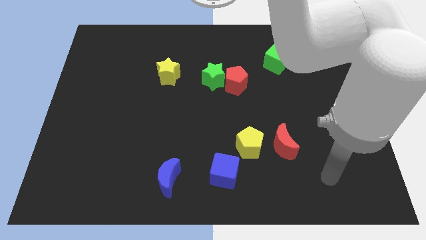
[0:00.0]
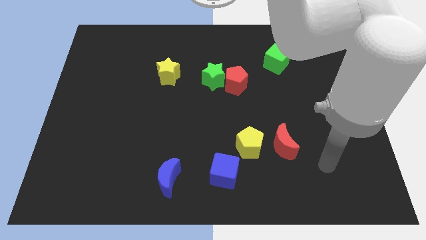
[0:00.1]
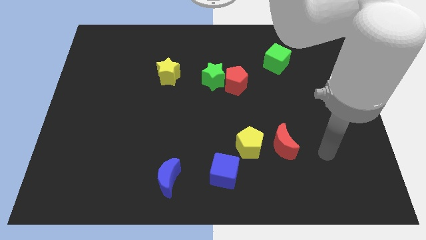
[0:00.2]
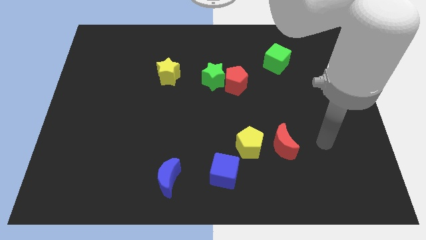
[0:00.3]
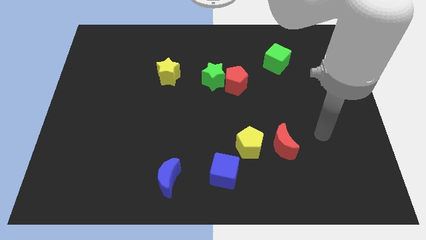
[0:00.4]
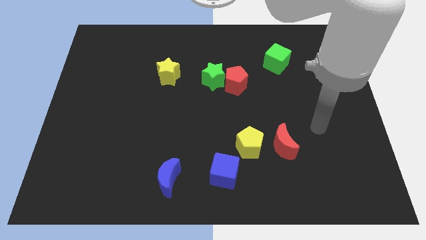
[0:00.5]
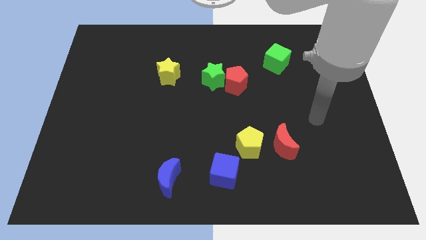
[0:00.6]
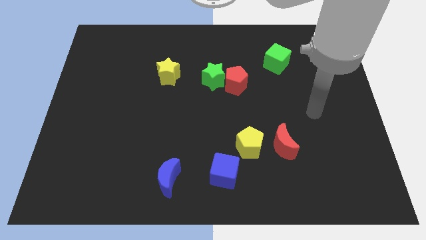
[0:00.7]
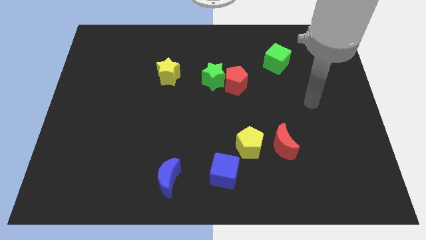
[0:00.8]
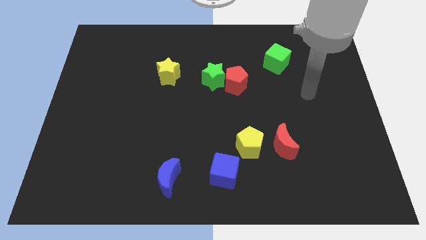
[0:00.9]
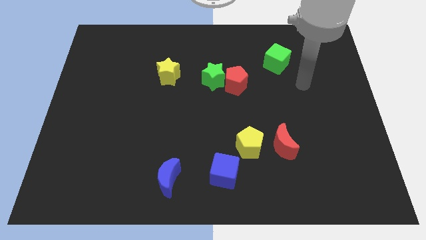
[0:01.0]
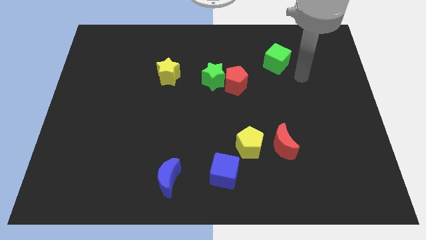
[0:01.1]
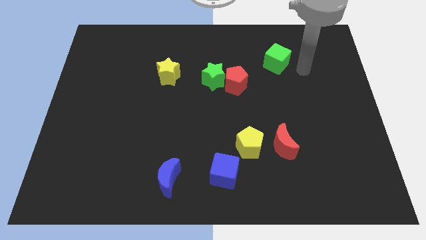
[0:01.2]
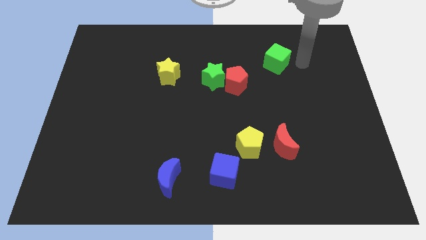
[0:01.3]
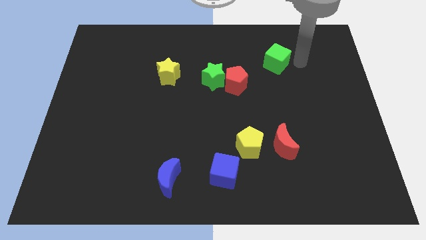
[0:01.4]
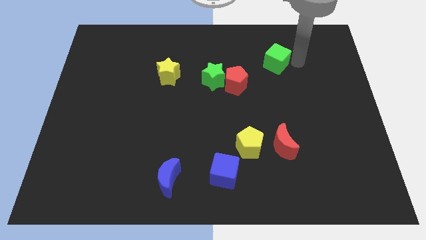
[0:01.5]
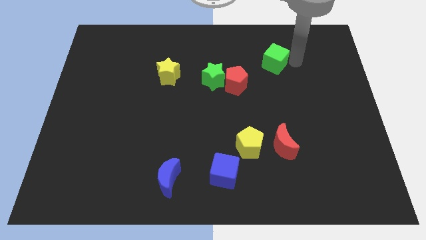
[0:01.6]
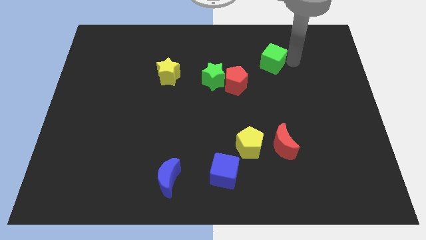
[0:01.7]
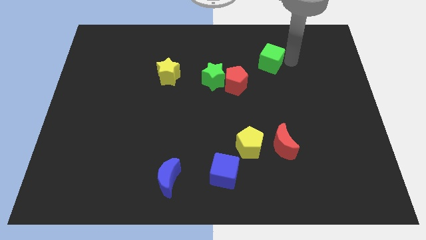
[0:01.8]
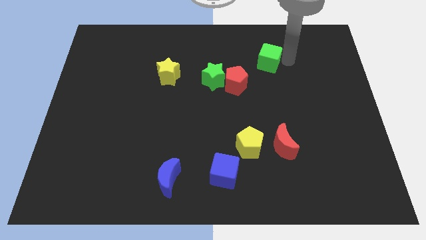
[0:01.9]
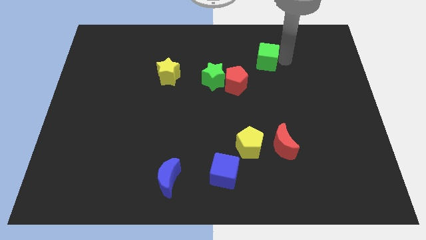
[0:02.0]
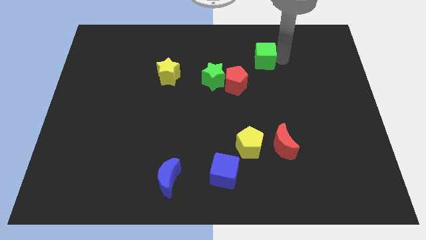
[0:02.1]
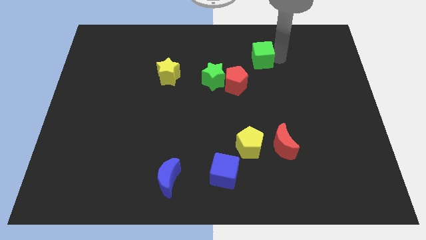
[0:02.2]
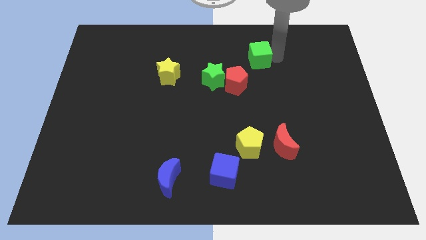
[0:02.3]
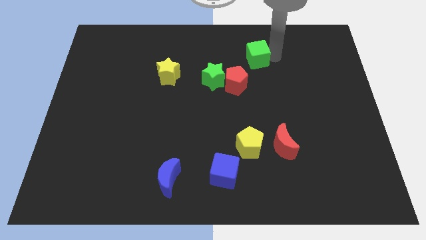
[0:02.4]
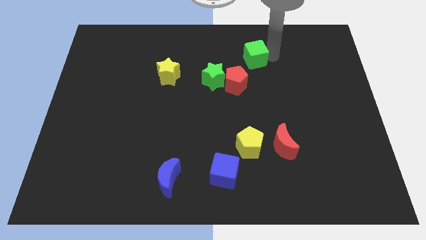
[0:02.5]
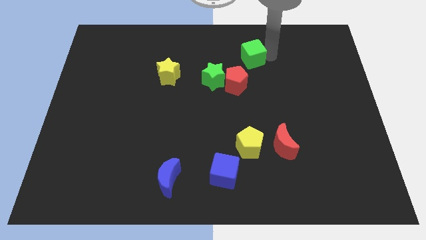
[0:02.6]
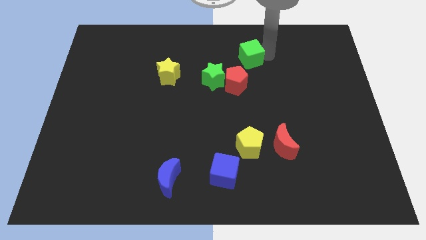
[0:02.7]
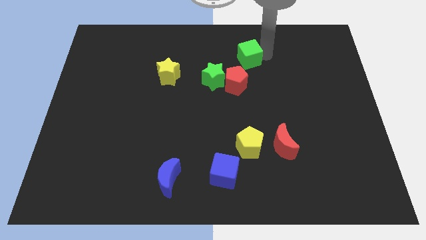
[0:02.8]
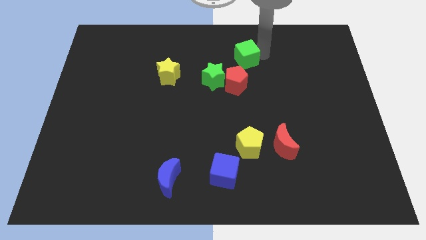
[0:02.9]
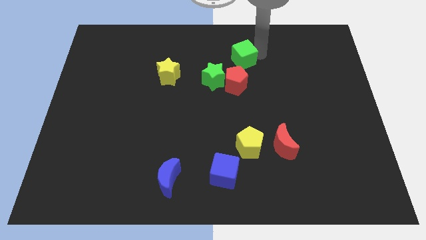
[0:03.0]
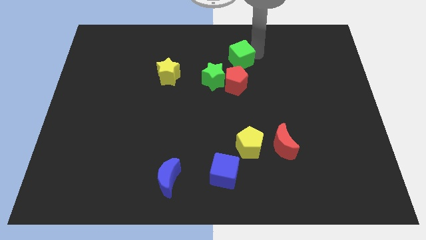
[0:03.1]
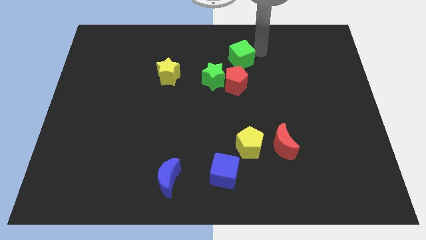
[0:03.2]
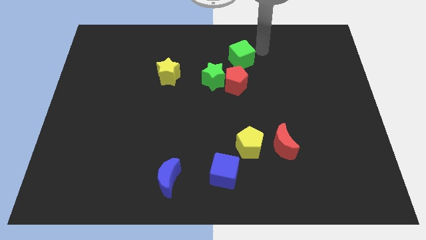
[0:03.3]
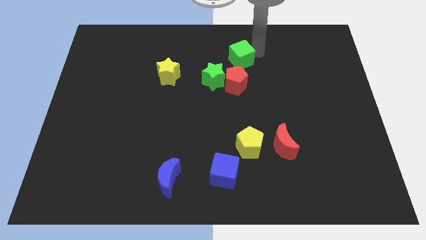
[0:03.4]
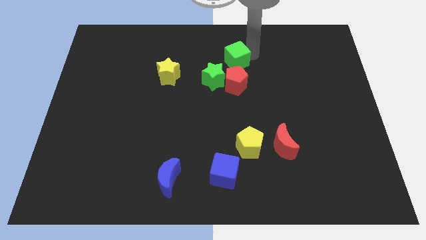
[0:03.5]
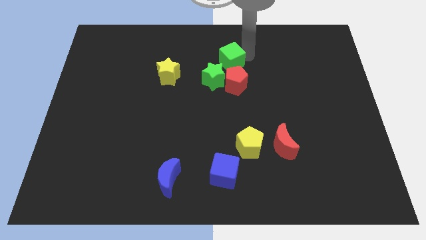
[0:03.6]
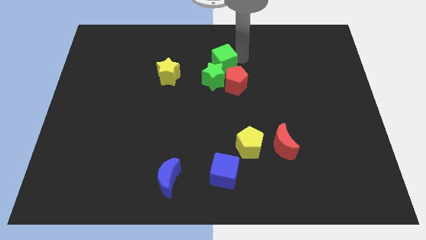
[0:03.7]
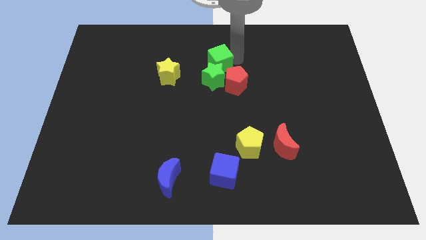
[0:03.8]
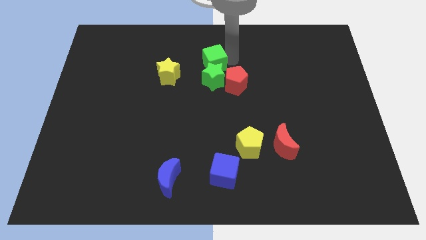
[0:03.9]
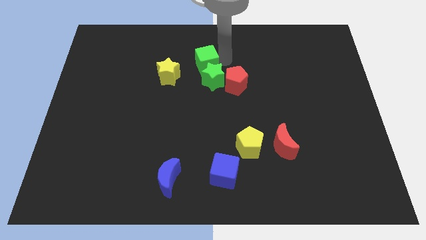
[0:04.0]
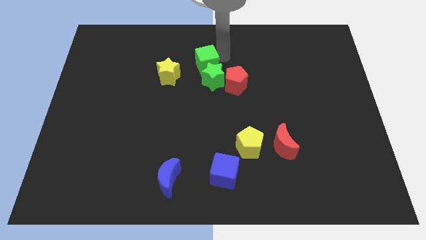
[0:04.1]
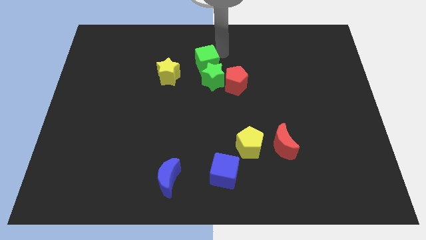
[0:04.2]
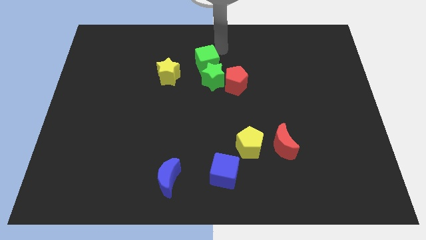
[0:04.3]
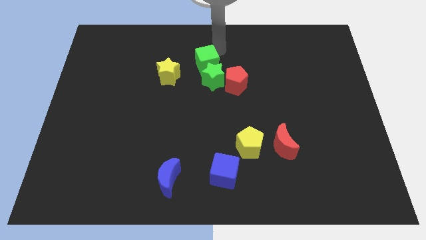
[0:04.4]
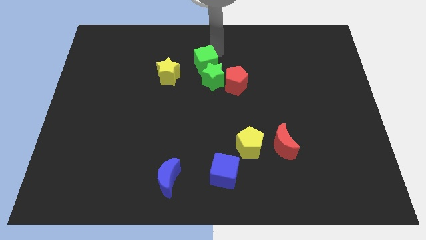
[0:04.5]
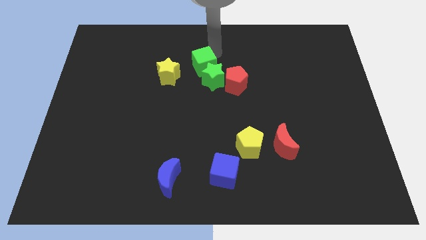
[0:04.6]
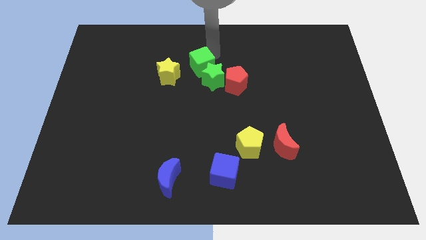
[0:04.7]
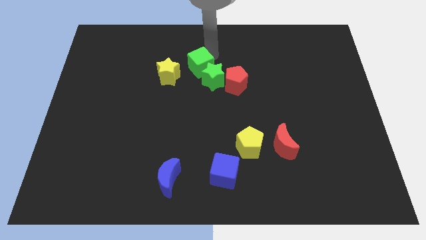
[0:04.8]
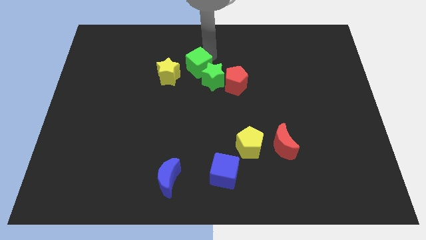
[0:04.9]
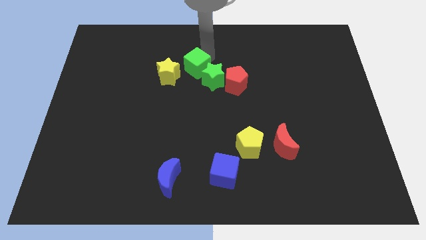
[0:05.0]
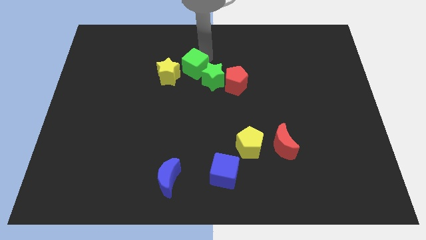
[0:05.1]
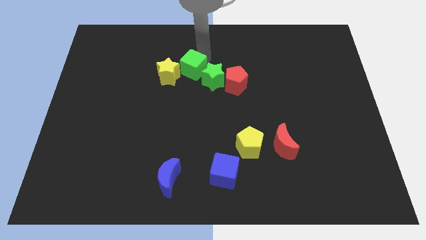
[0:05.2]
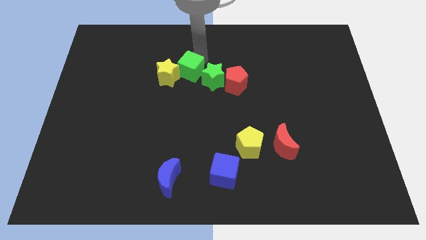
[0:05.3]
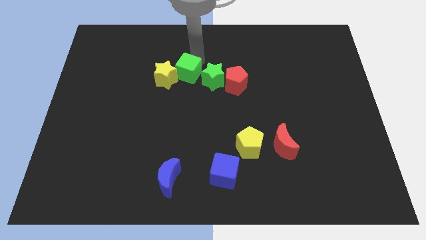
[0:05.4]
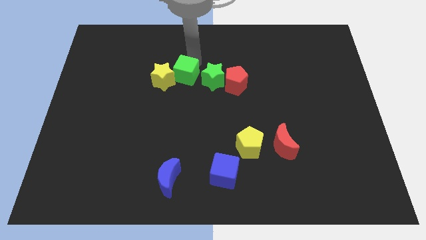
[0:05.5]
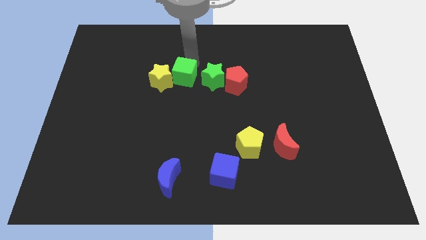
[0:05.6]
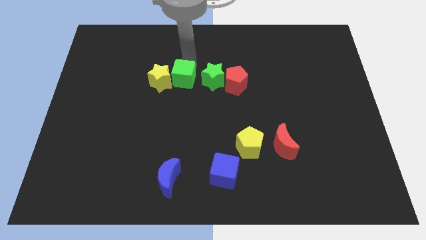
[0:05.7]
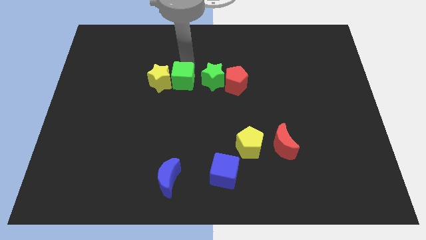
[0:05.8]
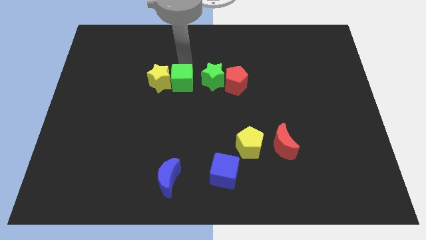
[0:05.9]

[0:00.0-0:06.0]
push the green cube diagonally down and to the left of the green star

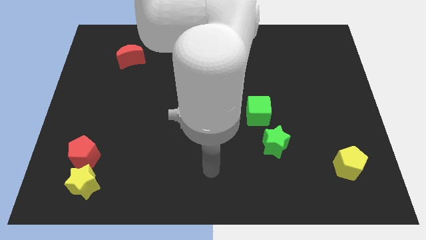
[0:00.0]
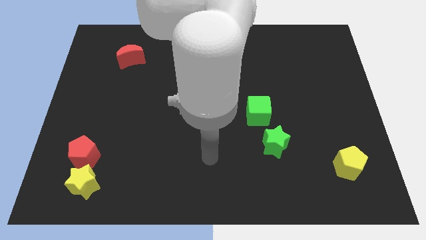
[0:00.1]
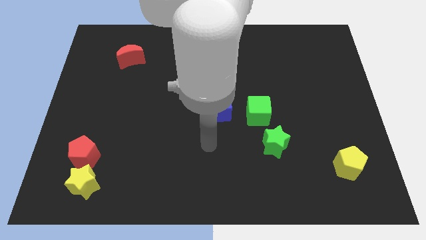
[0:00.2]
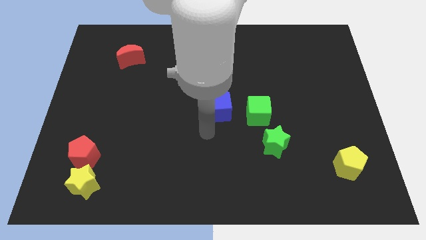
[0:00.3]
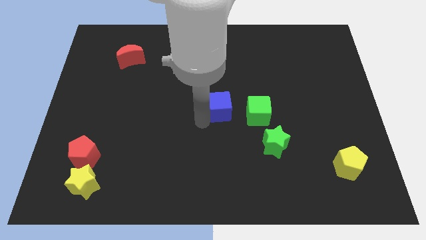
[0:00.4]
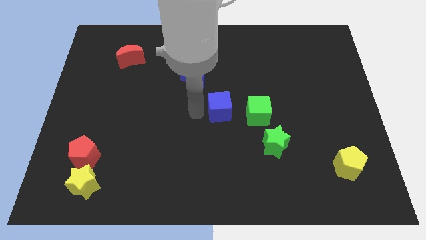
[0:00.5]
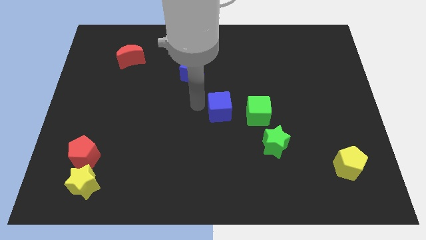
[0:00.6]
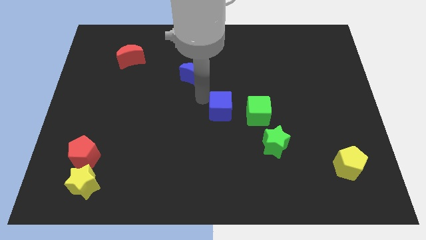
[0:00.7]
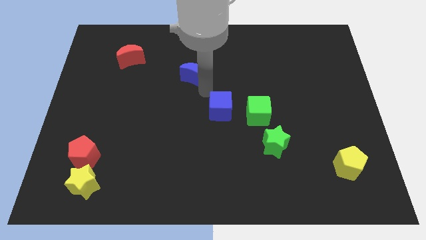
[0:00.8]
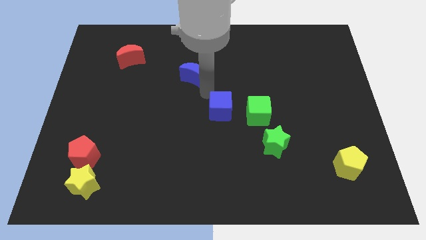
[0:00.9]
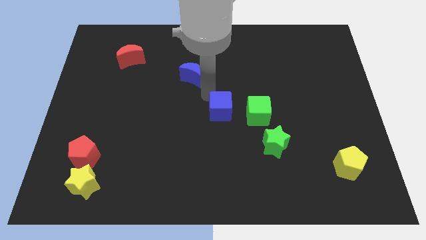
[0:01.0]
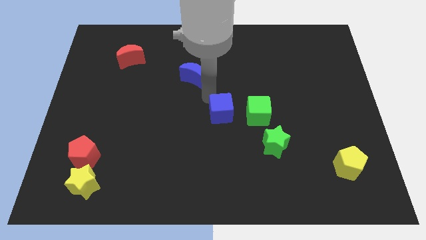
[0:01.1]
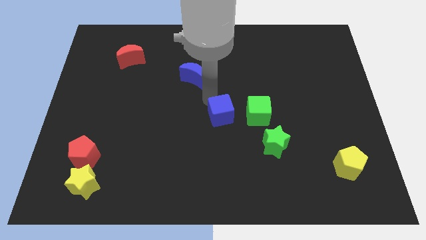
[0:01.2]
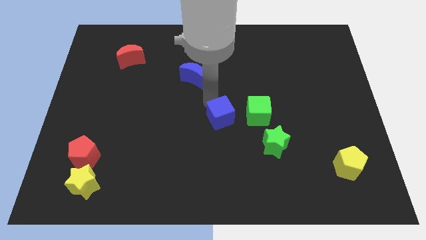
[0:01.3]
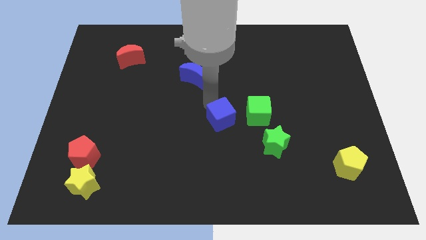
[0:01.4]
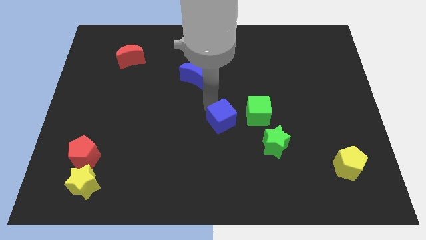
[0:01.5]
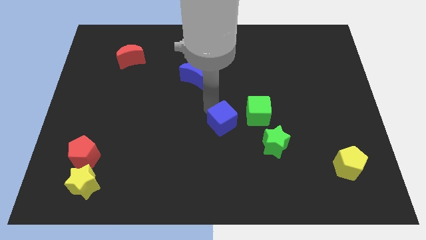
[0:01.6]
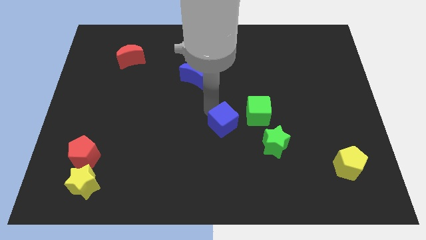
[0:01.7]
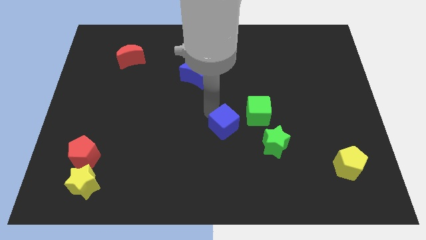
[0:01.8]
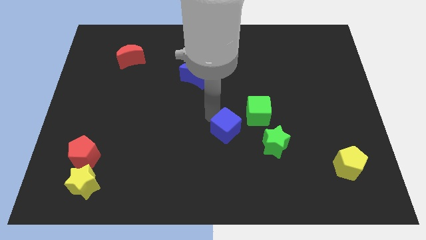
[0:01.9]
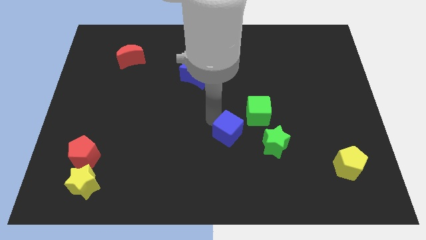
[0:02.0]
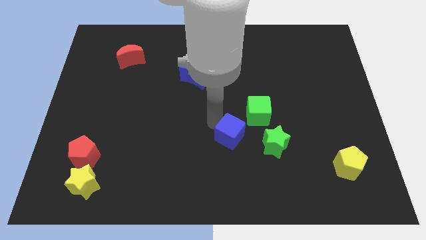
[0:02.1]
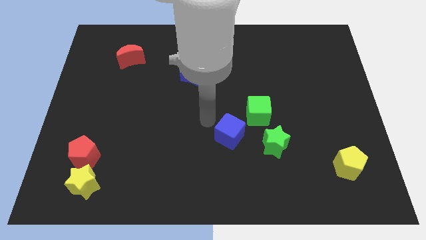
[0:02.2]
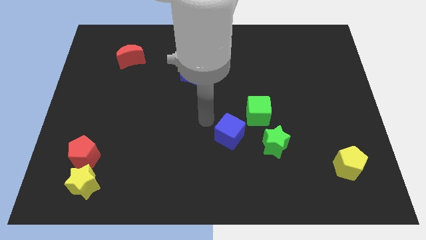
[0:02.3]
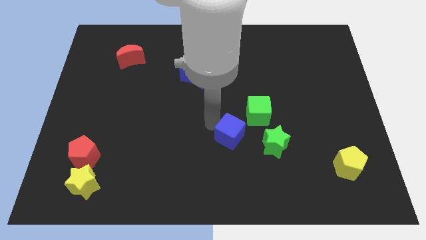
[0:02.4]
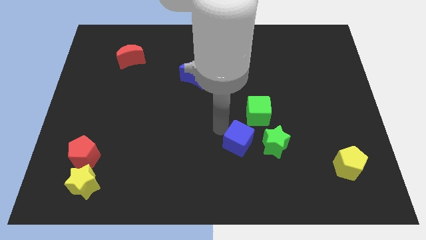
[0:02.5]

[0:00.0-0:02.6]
put the blue cube to the bottom side of the green cube
